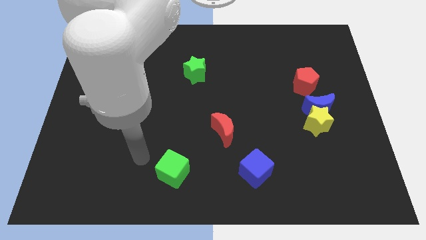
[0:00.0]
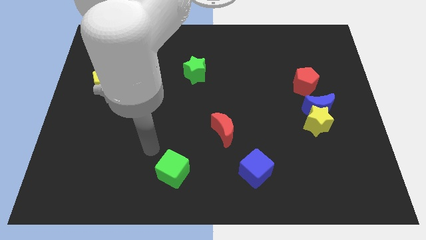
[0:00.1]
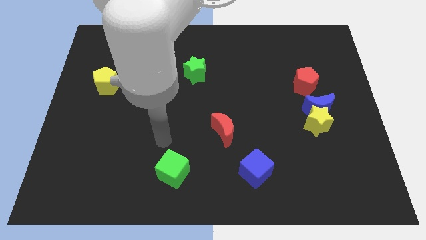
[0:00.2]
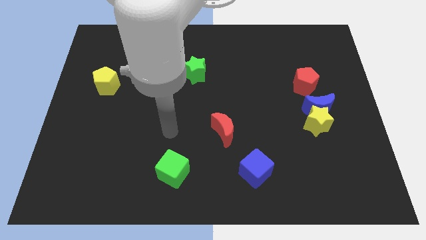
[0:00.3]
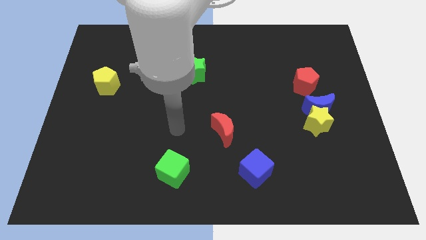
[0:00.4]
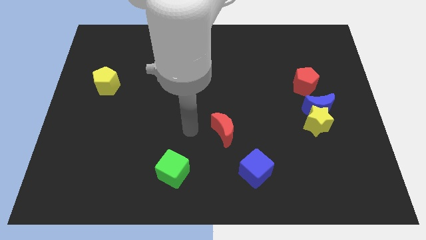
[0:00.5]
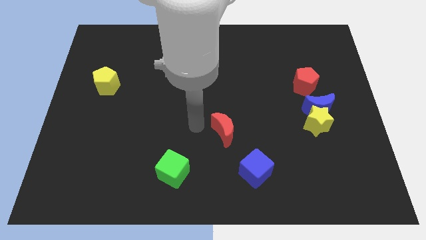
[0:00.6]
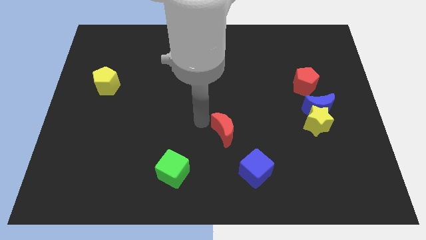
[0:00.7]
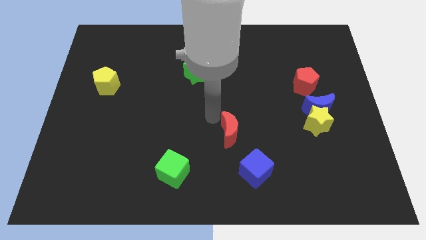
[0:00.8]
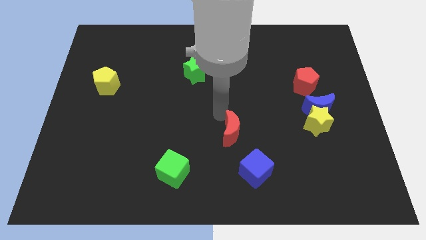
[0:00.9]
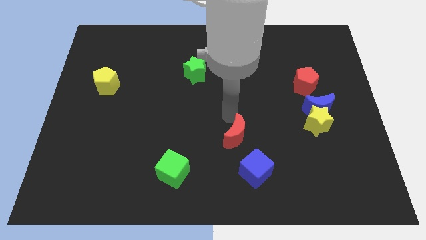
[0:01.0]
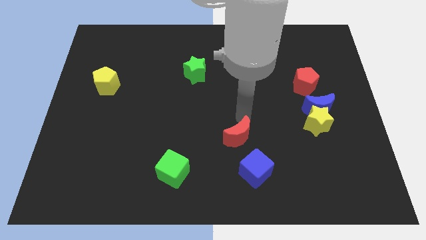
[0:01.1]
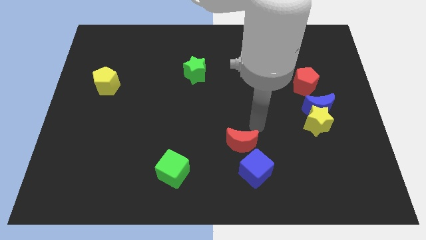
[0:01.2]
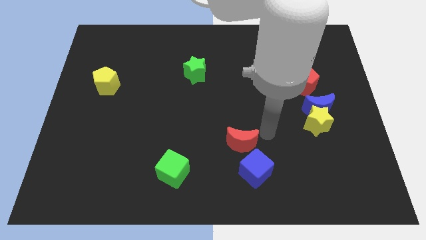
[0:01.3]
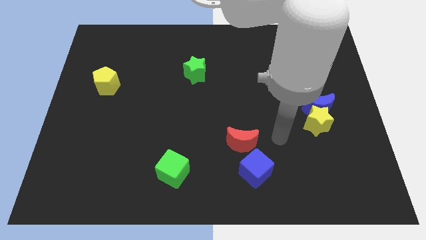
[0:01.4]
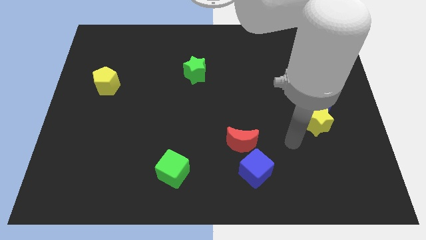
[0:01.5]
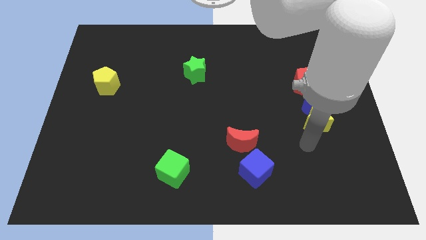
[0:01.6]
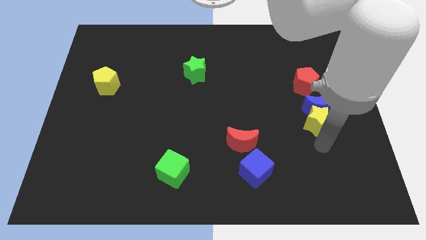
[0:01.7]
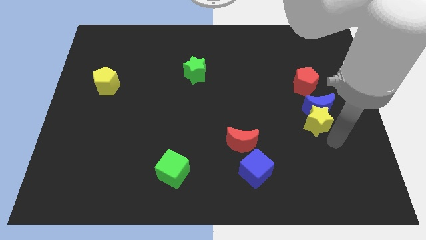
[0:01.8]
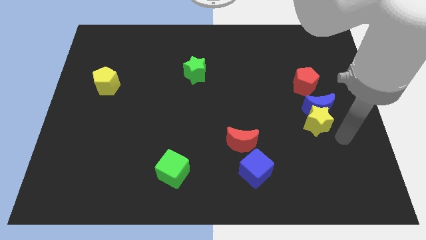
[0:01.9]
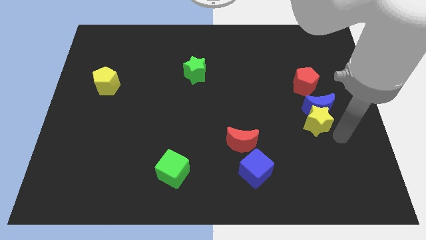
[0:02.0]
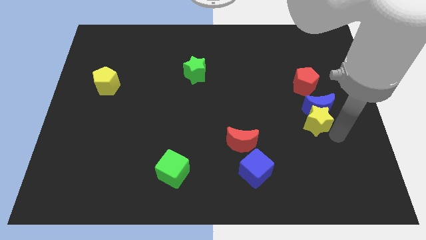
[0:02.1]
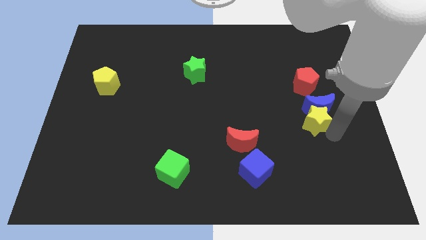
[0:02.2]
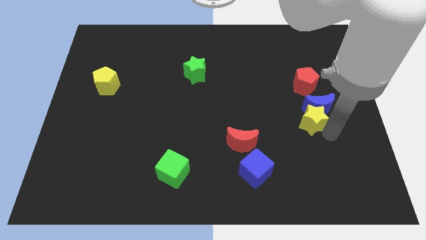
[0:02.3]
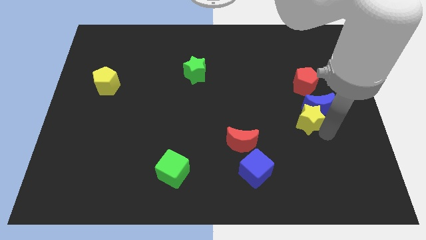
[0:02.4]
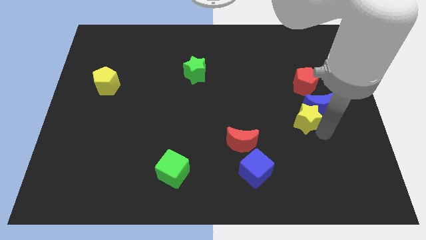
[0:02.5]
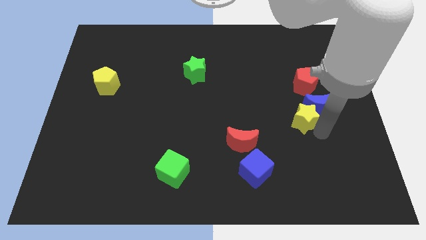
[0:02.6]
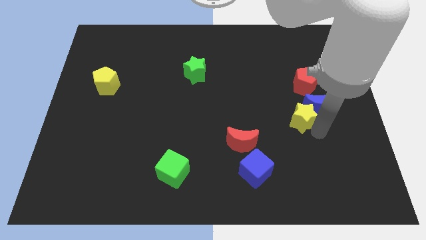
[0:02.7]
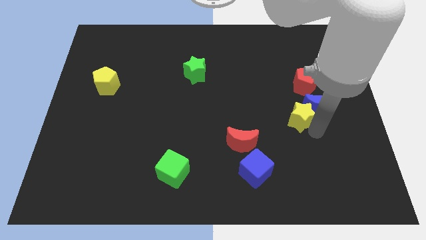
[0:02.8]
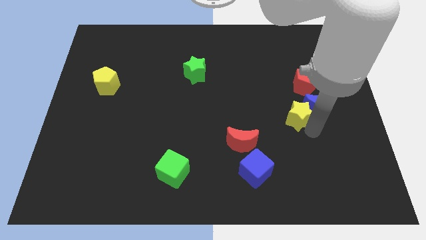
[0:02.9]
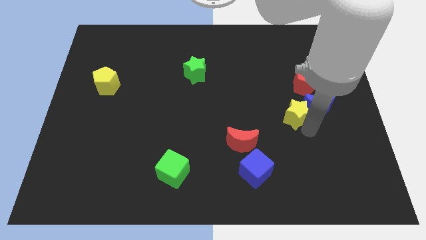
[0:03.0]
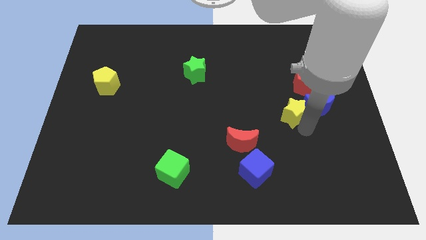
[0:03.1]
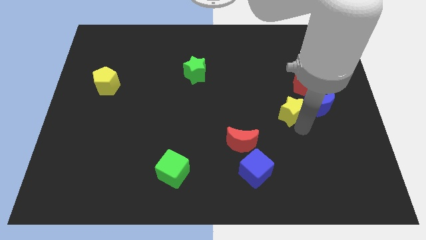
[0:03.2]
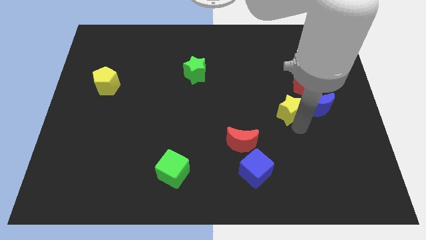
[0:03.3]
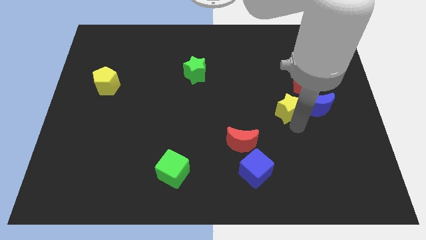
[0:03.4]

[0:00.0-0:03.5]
slightly slide the yellow star up and then left

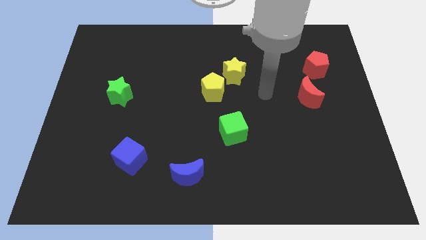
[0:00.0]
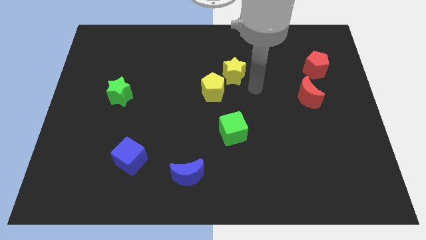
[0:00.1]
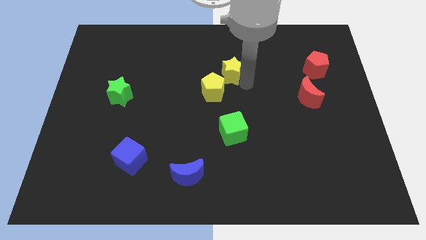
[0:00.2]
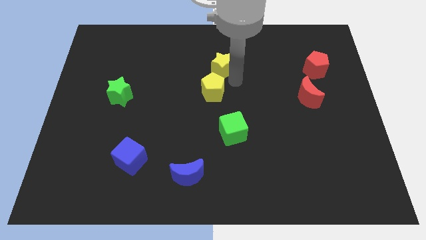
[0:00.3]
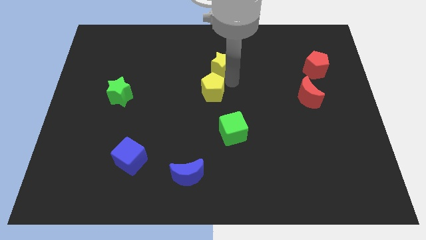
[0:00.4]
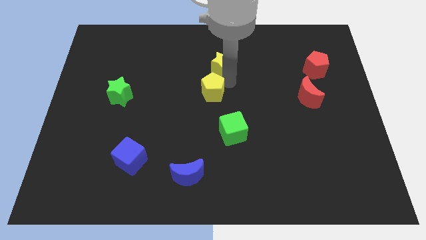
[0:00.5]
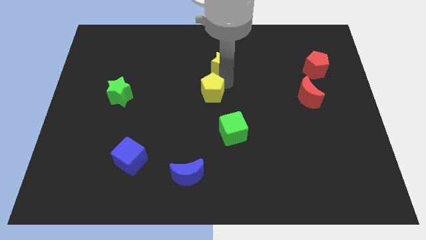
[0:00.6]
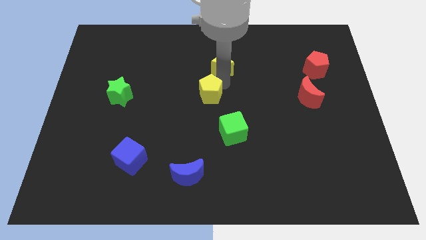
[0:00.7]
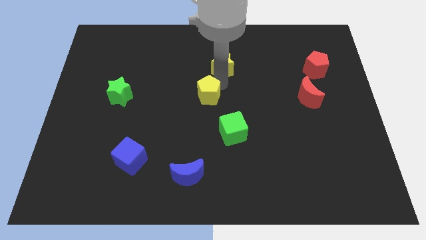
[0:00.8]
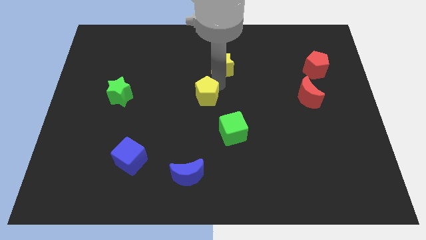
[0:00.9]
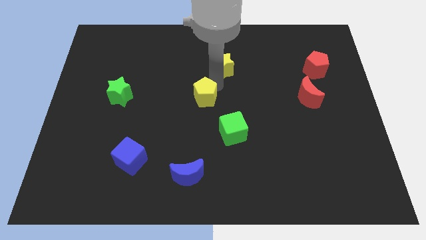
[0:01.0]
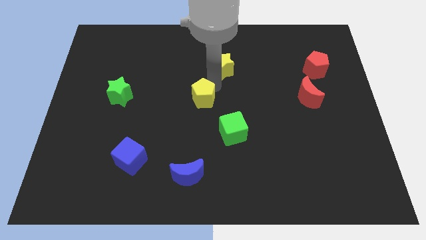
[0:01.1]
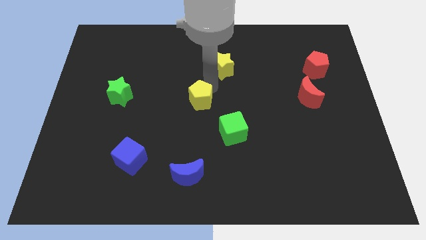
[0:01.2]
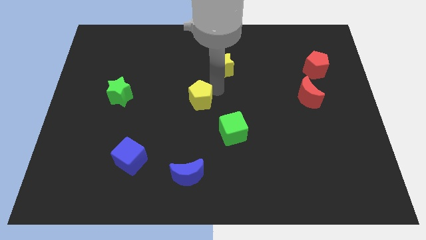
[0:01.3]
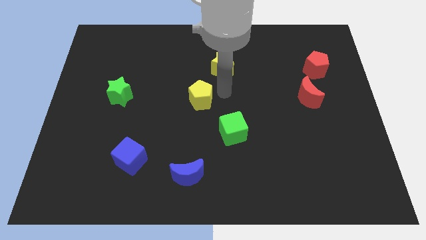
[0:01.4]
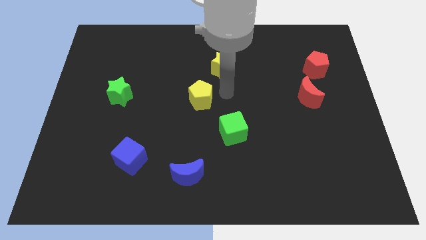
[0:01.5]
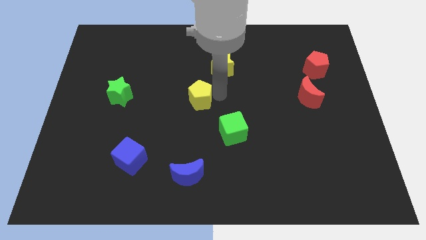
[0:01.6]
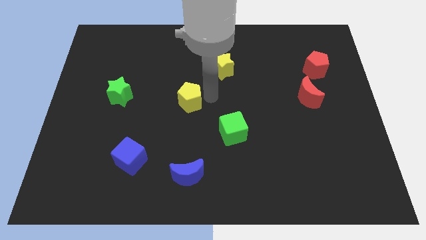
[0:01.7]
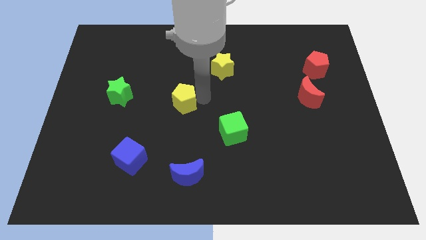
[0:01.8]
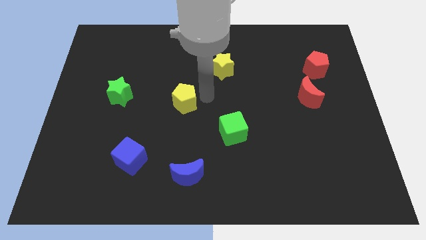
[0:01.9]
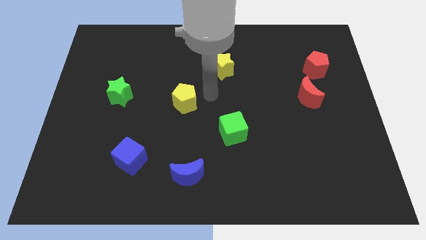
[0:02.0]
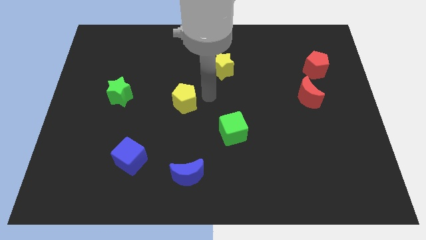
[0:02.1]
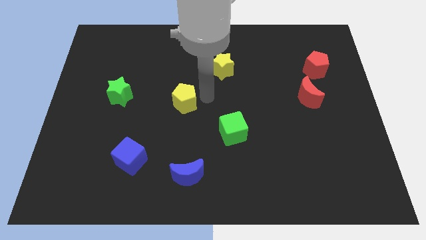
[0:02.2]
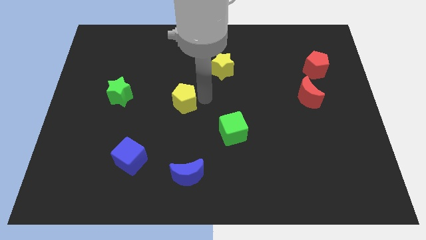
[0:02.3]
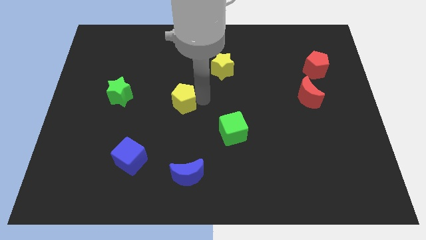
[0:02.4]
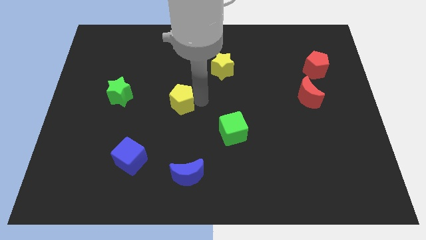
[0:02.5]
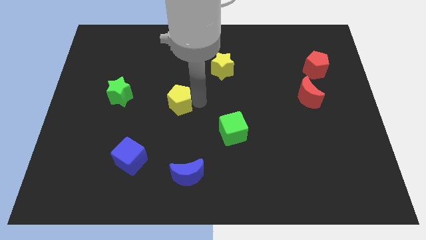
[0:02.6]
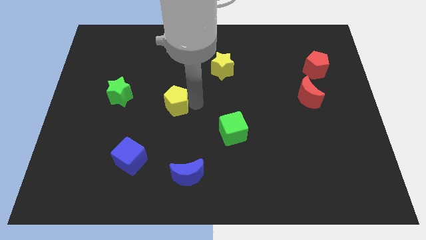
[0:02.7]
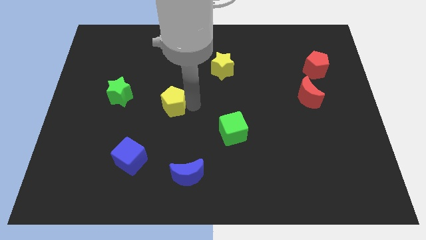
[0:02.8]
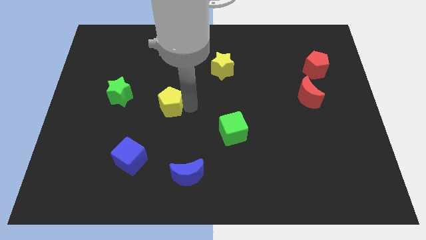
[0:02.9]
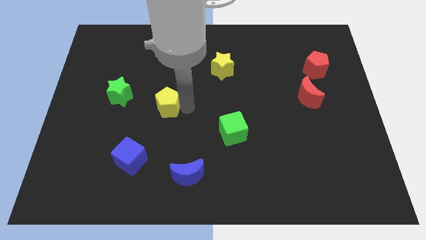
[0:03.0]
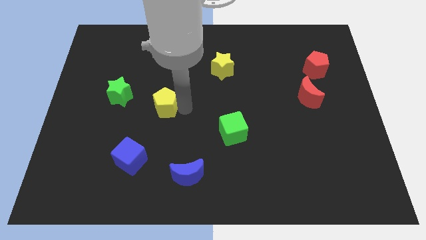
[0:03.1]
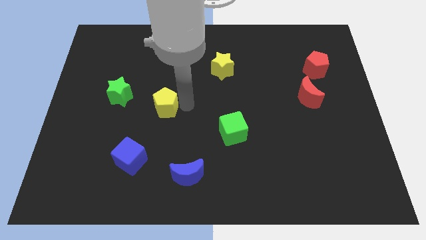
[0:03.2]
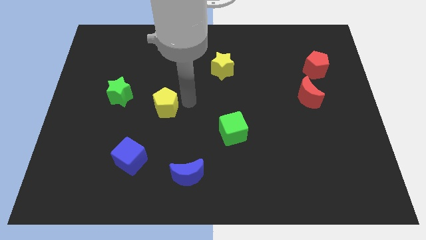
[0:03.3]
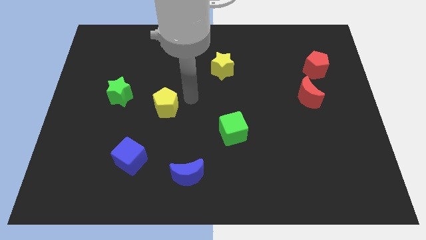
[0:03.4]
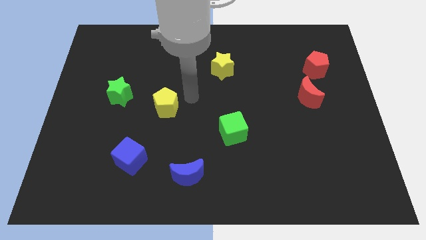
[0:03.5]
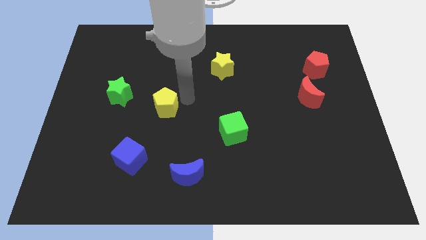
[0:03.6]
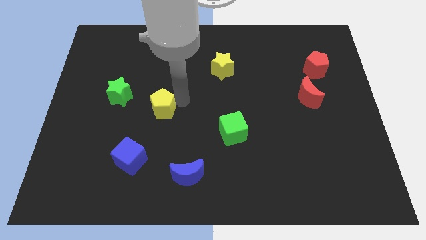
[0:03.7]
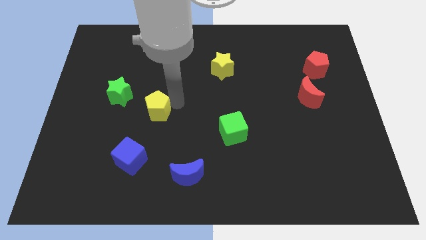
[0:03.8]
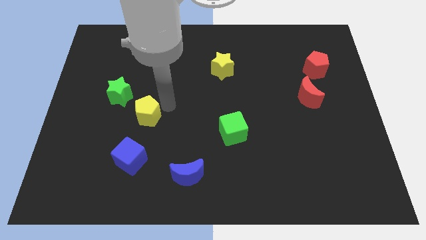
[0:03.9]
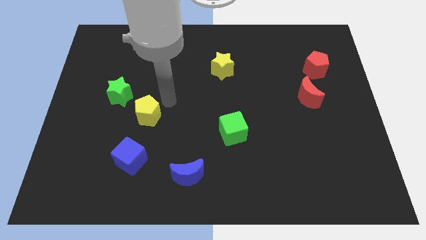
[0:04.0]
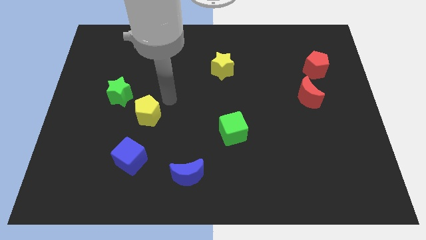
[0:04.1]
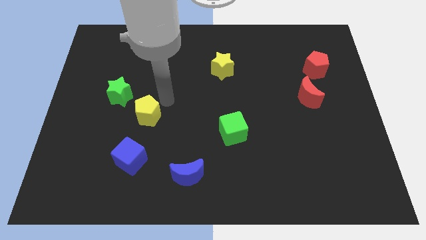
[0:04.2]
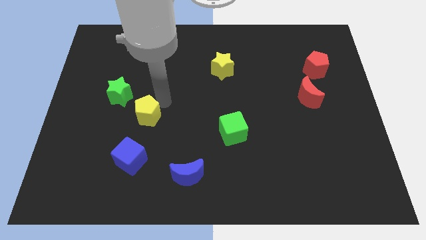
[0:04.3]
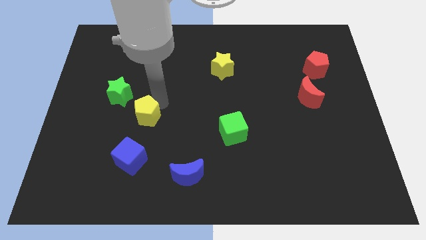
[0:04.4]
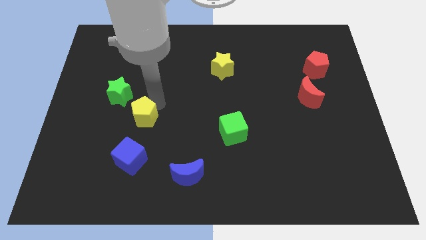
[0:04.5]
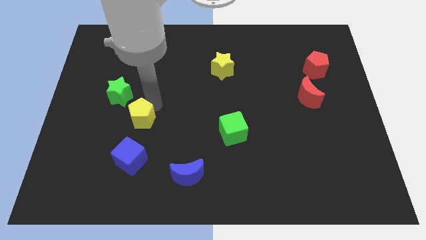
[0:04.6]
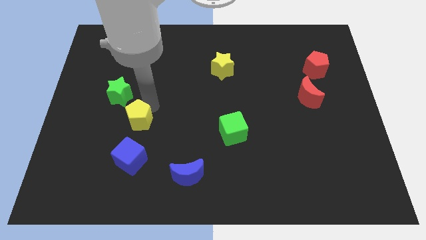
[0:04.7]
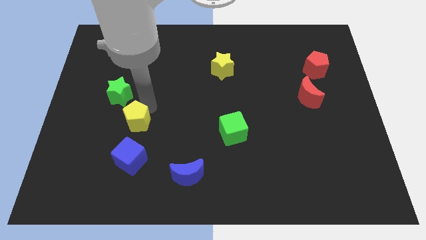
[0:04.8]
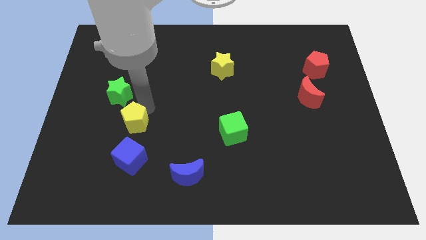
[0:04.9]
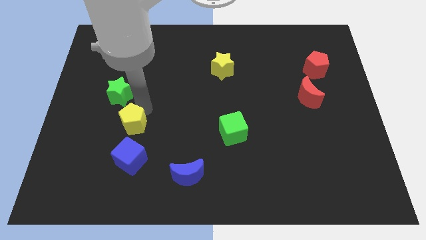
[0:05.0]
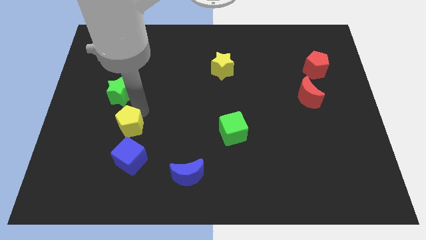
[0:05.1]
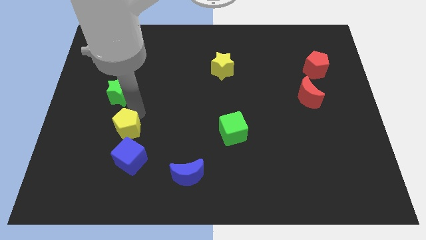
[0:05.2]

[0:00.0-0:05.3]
slide the yellow pentagon down and then to the left
